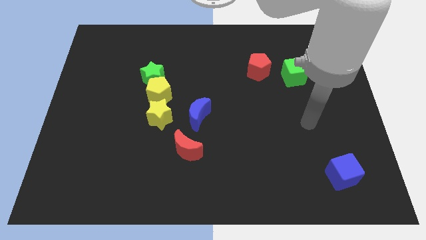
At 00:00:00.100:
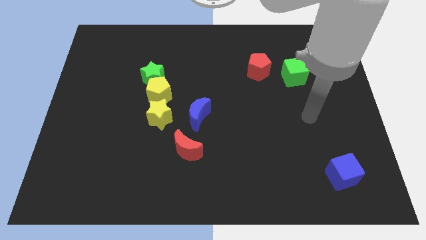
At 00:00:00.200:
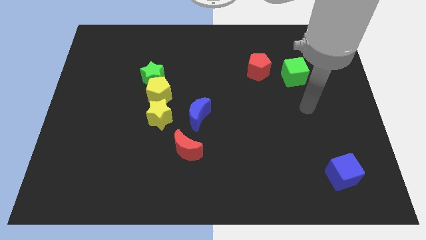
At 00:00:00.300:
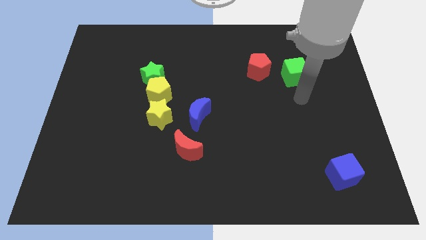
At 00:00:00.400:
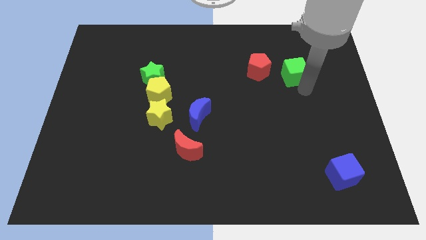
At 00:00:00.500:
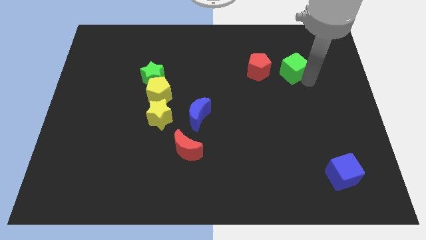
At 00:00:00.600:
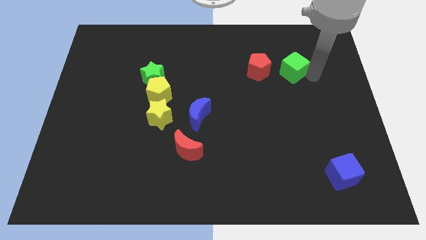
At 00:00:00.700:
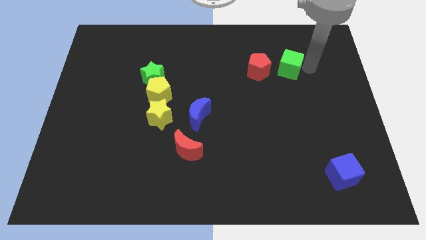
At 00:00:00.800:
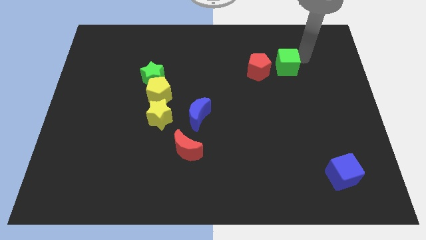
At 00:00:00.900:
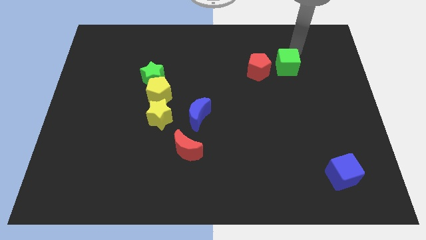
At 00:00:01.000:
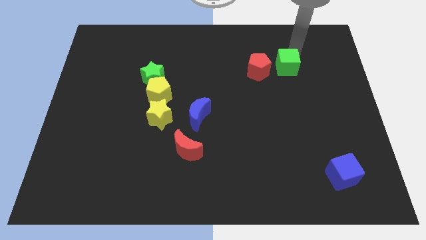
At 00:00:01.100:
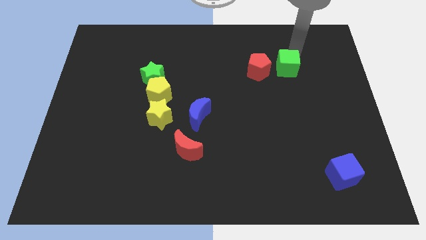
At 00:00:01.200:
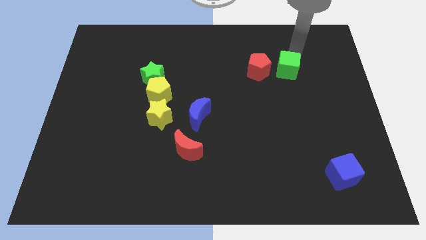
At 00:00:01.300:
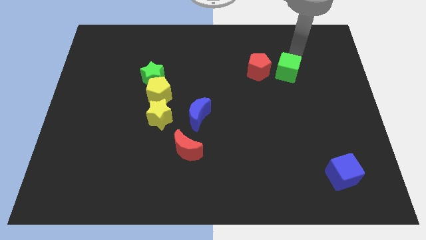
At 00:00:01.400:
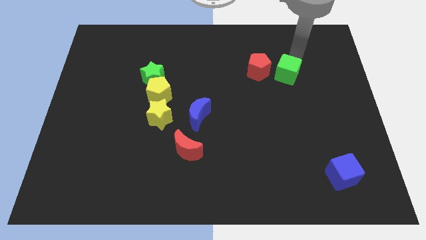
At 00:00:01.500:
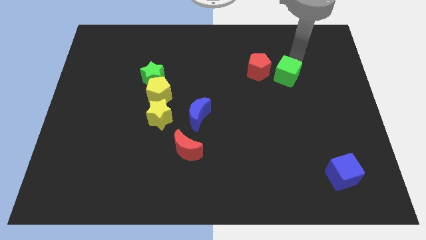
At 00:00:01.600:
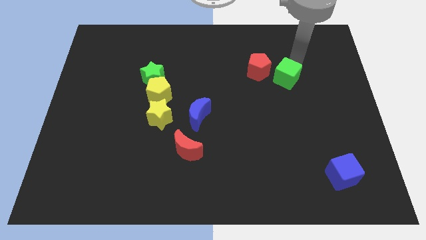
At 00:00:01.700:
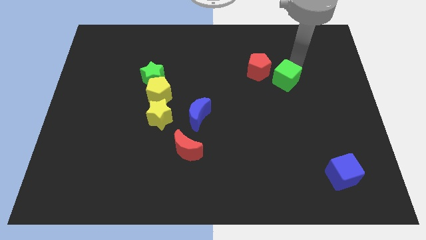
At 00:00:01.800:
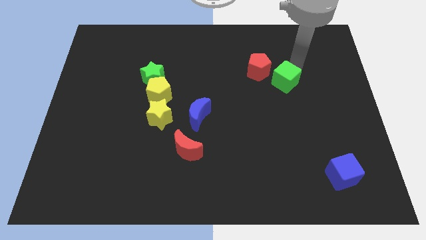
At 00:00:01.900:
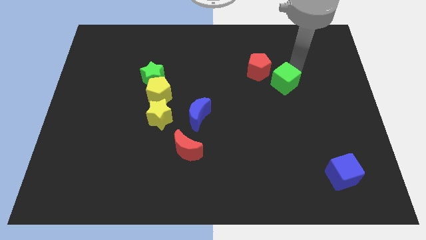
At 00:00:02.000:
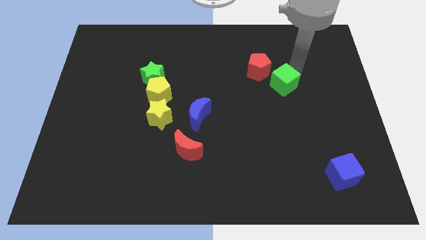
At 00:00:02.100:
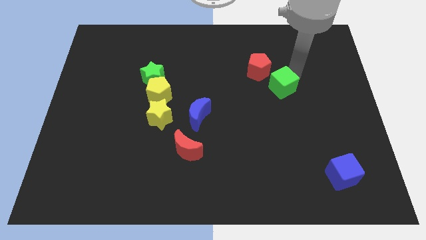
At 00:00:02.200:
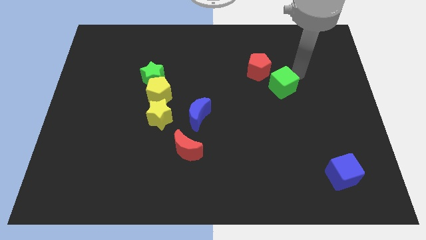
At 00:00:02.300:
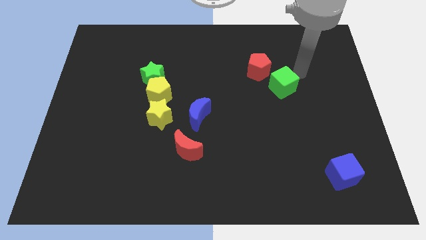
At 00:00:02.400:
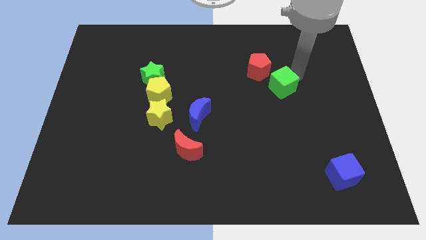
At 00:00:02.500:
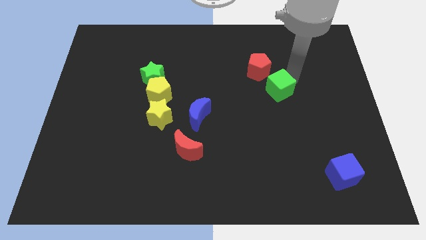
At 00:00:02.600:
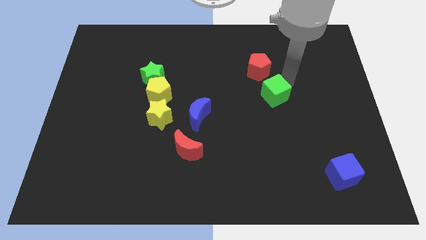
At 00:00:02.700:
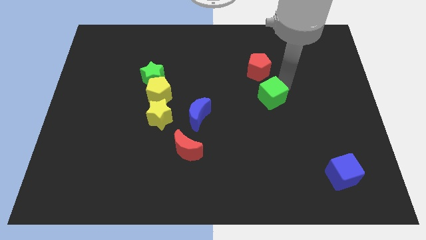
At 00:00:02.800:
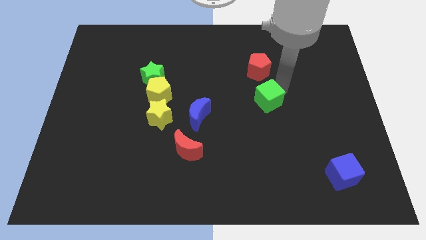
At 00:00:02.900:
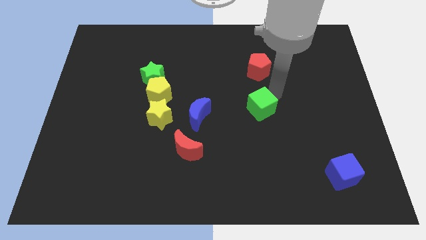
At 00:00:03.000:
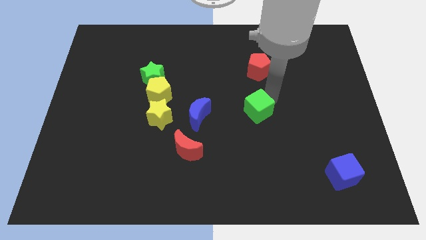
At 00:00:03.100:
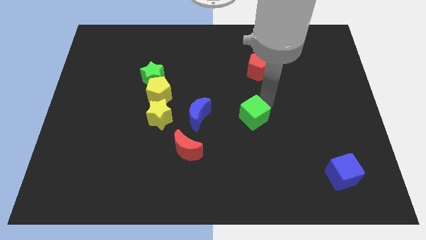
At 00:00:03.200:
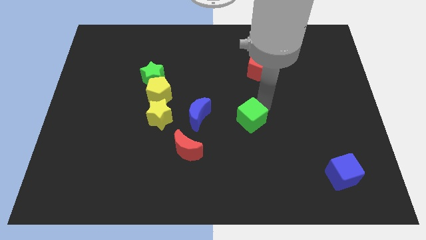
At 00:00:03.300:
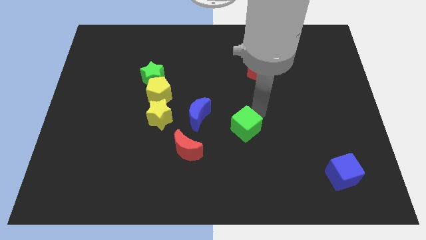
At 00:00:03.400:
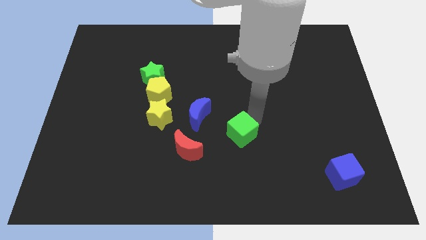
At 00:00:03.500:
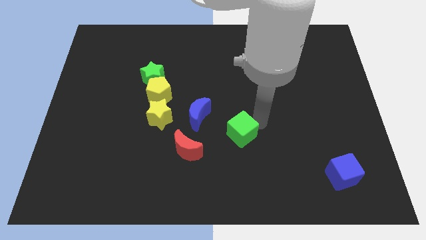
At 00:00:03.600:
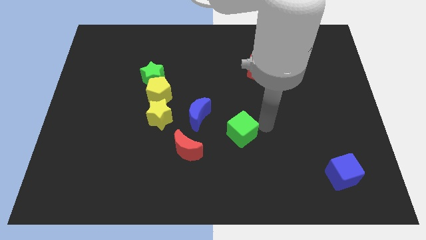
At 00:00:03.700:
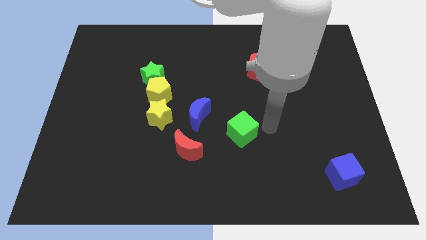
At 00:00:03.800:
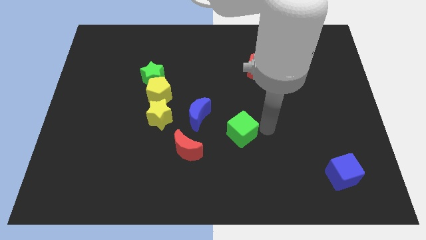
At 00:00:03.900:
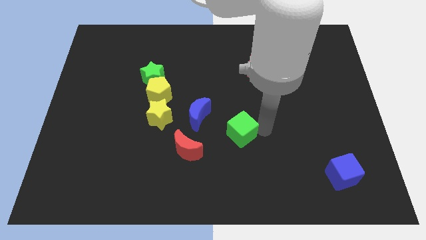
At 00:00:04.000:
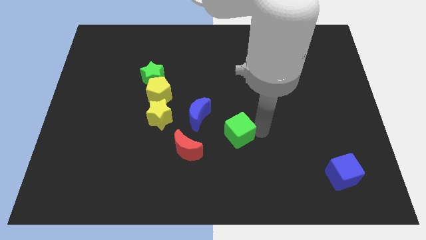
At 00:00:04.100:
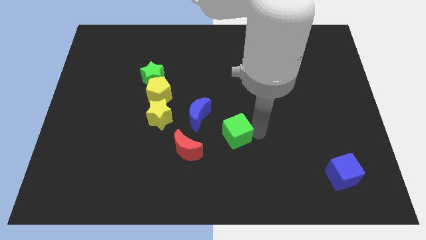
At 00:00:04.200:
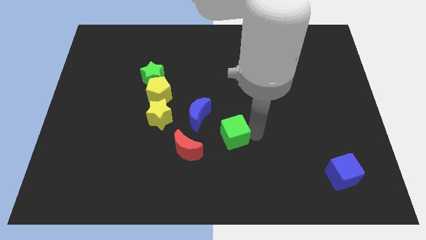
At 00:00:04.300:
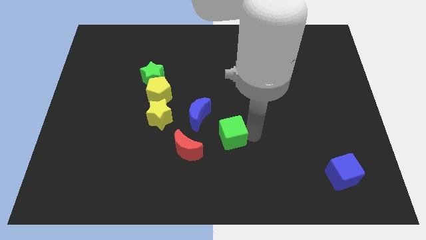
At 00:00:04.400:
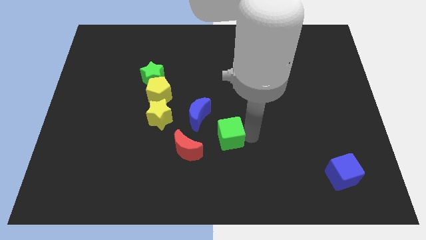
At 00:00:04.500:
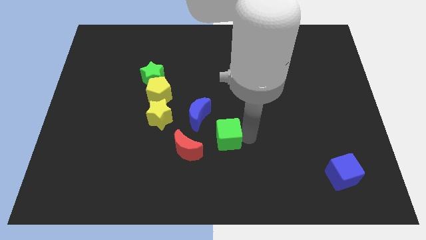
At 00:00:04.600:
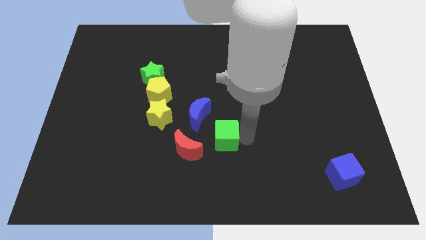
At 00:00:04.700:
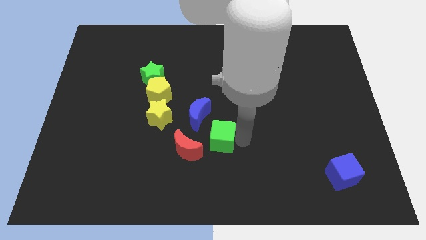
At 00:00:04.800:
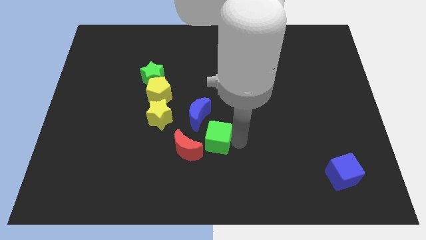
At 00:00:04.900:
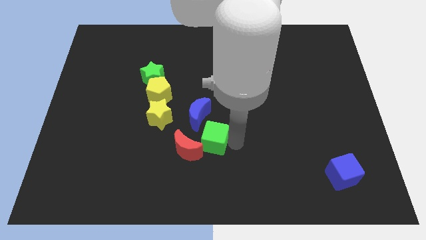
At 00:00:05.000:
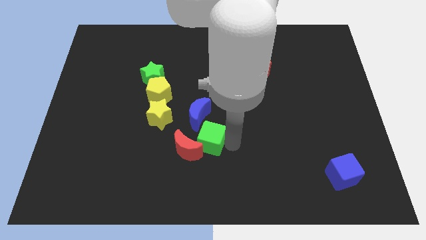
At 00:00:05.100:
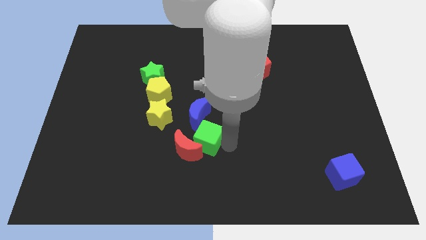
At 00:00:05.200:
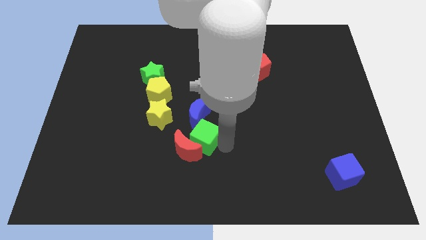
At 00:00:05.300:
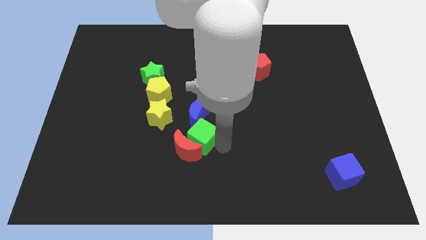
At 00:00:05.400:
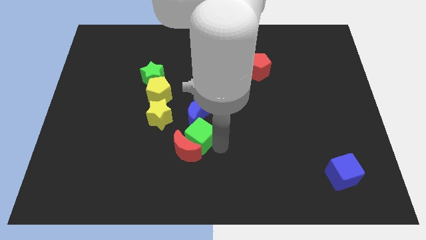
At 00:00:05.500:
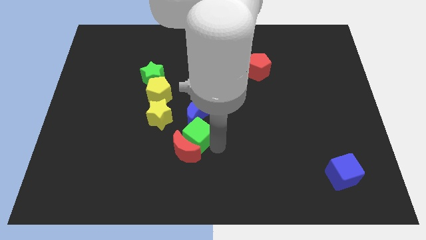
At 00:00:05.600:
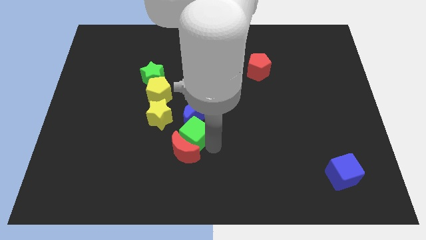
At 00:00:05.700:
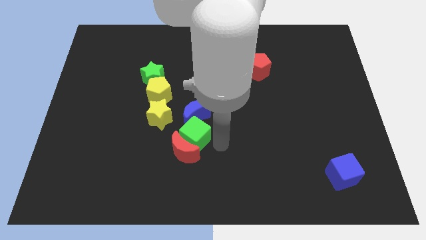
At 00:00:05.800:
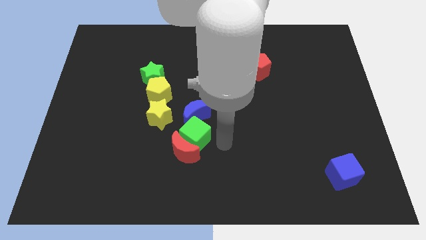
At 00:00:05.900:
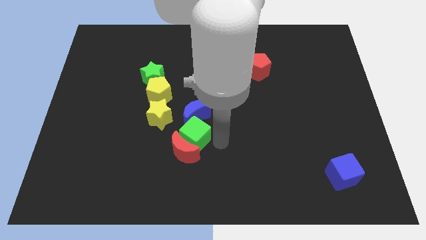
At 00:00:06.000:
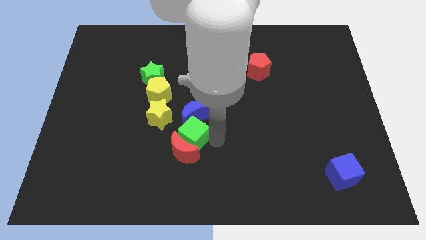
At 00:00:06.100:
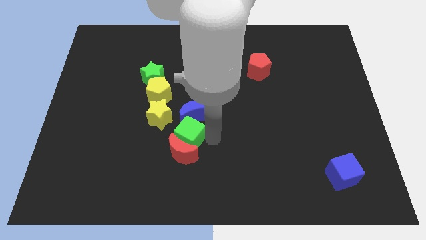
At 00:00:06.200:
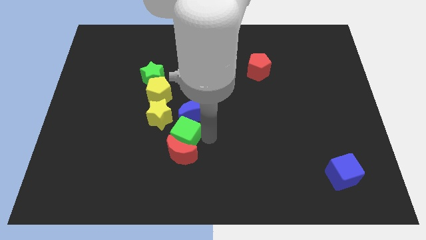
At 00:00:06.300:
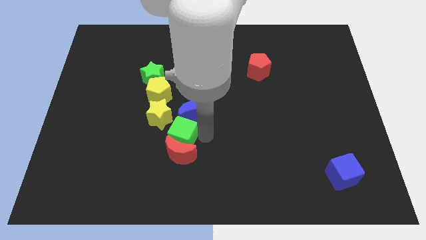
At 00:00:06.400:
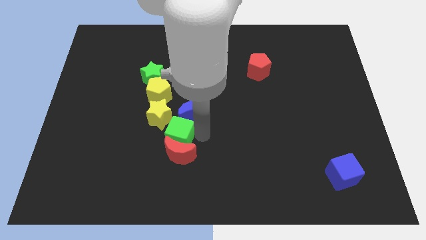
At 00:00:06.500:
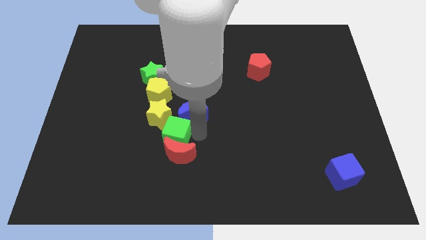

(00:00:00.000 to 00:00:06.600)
push the green cube below the yellow pentagon

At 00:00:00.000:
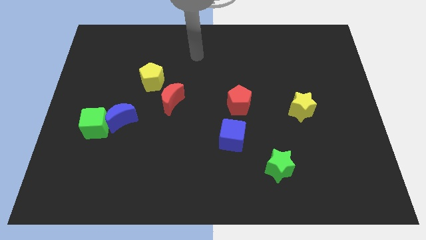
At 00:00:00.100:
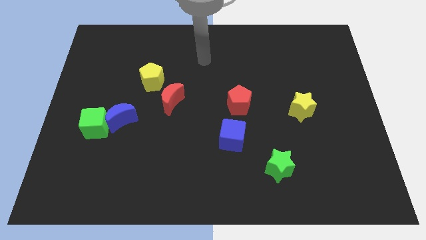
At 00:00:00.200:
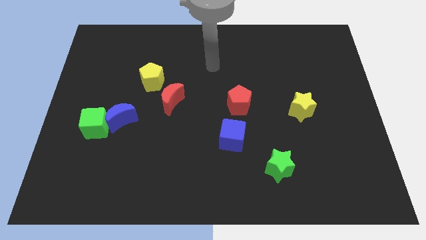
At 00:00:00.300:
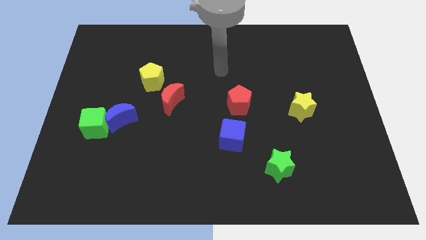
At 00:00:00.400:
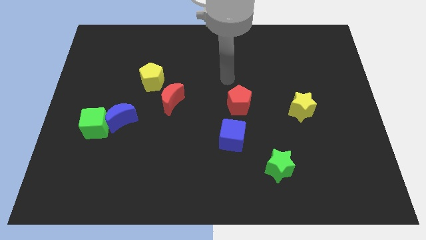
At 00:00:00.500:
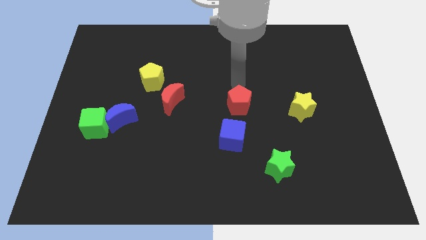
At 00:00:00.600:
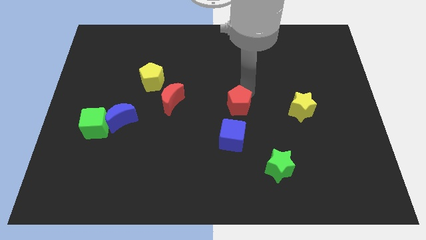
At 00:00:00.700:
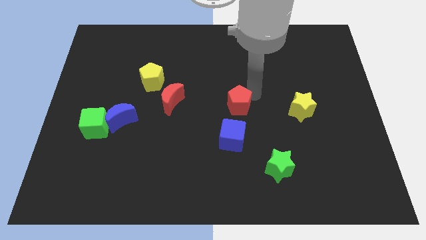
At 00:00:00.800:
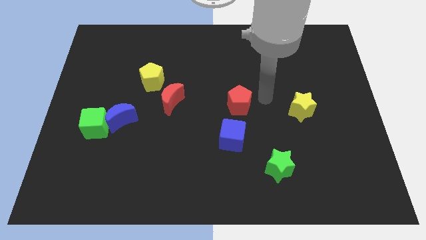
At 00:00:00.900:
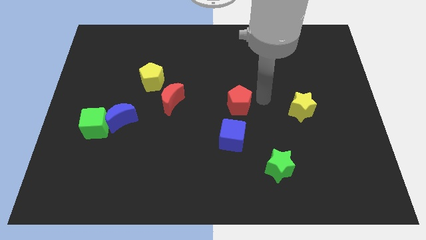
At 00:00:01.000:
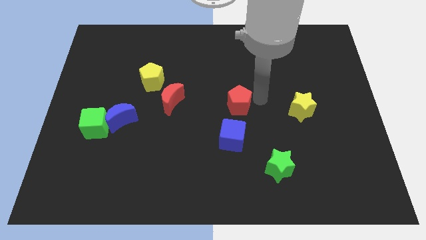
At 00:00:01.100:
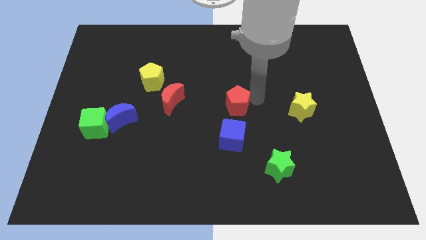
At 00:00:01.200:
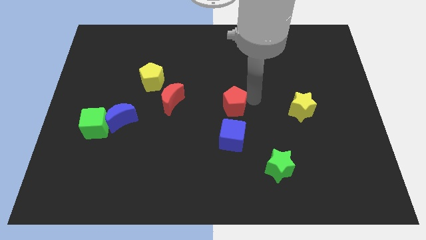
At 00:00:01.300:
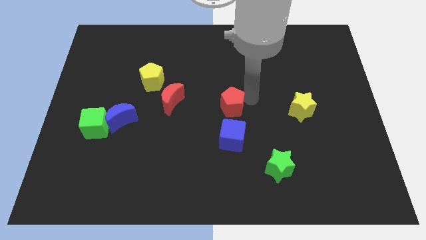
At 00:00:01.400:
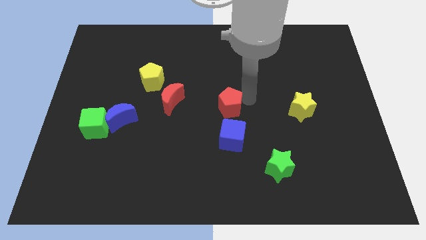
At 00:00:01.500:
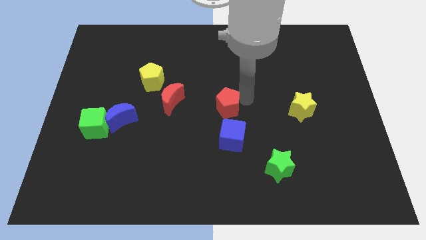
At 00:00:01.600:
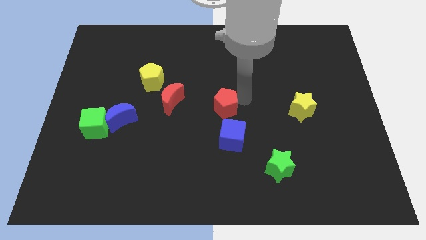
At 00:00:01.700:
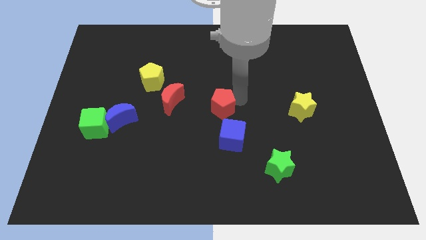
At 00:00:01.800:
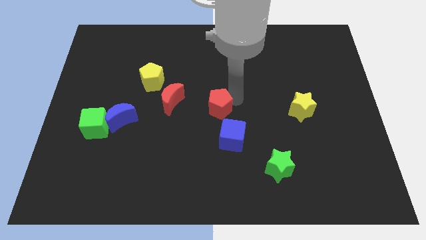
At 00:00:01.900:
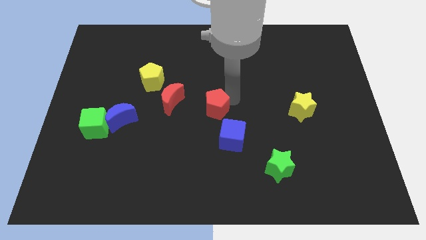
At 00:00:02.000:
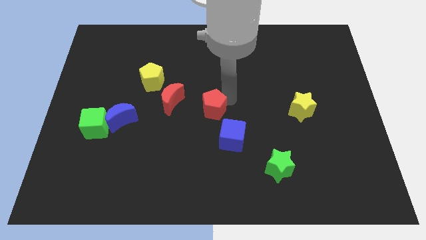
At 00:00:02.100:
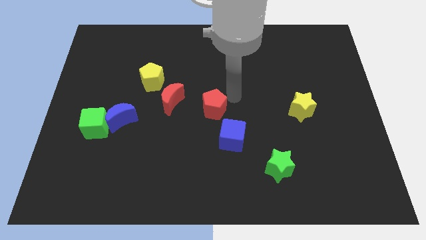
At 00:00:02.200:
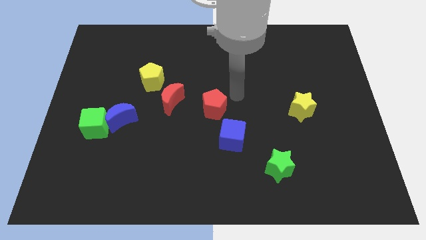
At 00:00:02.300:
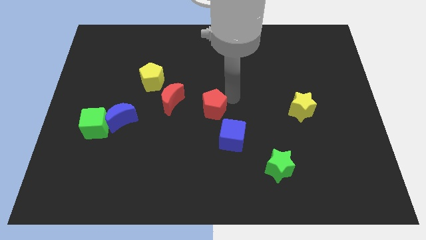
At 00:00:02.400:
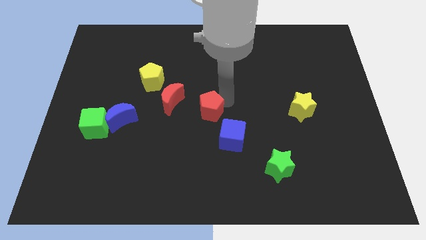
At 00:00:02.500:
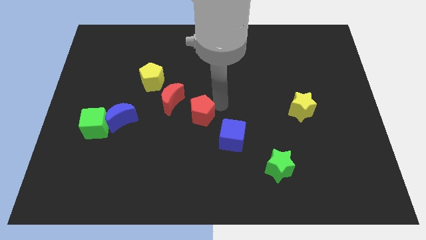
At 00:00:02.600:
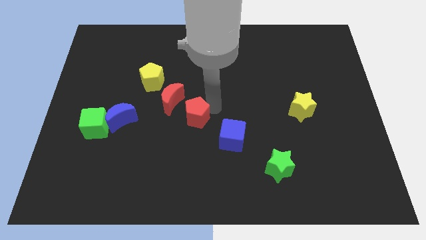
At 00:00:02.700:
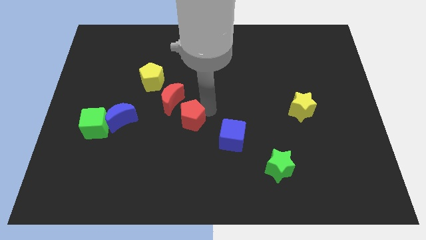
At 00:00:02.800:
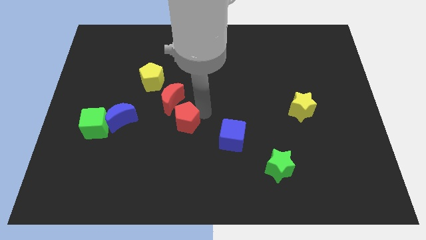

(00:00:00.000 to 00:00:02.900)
move the red pentagon to the bottom of the red moon
